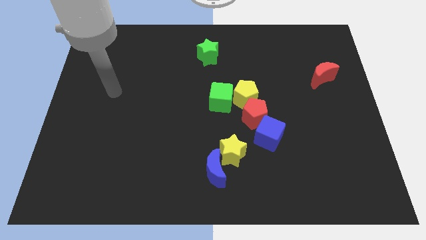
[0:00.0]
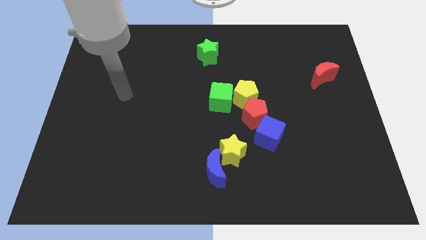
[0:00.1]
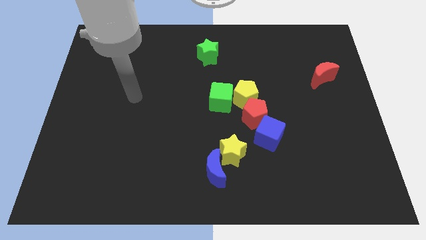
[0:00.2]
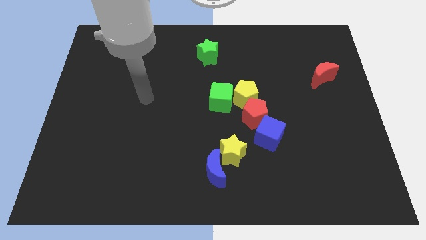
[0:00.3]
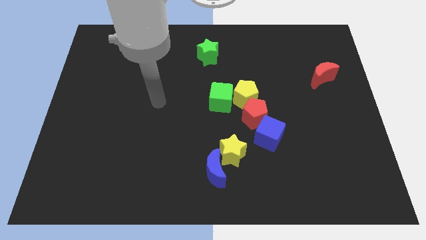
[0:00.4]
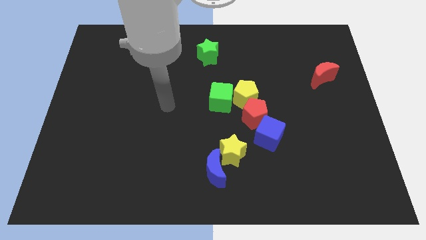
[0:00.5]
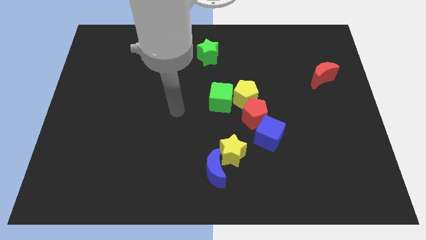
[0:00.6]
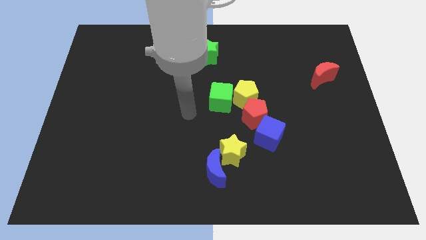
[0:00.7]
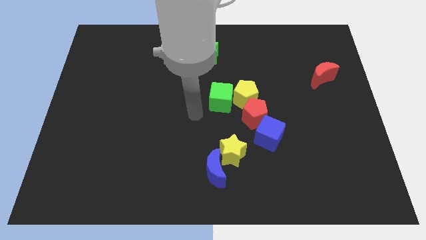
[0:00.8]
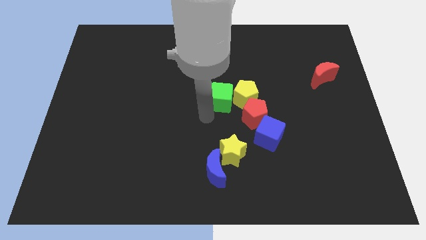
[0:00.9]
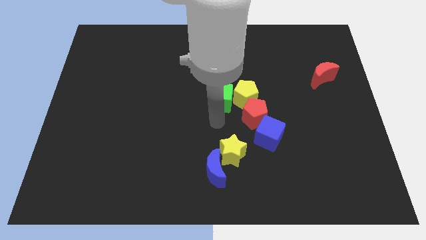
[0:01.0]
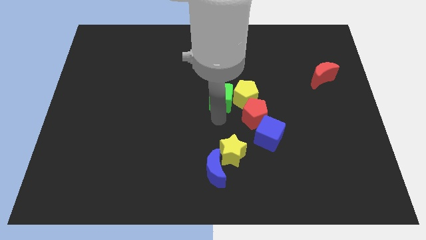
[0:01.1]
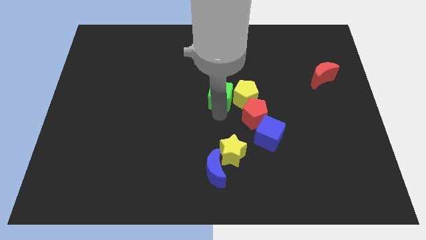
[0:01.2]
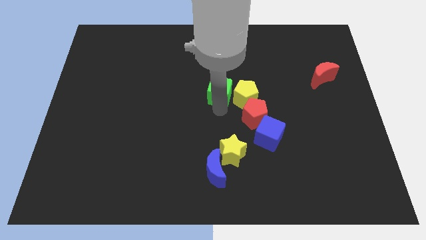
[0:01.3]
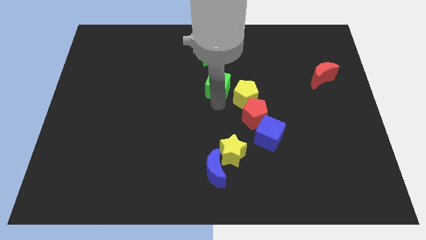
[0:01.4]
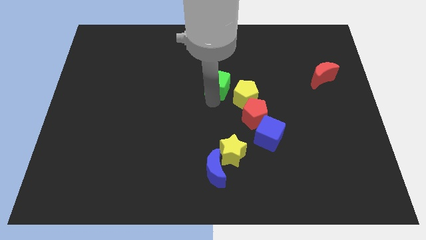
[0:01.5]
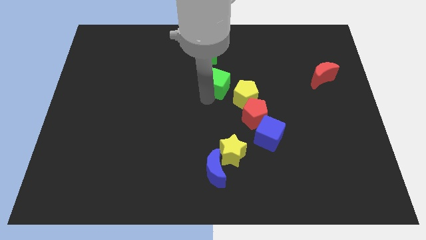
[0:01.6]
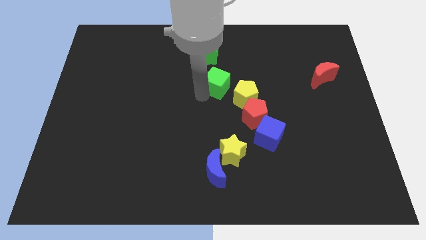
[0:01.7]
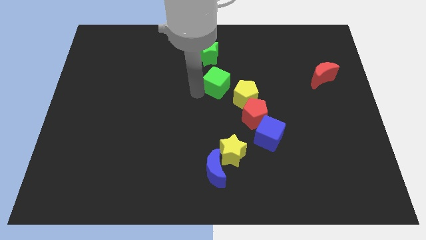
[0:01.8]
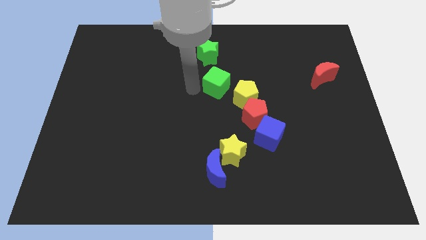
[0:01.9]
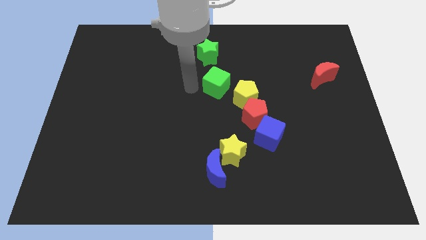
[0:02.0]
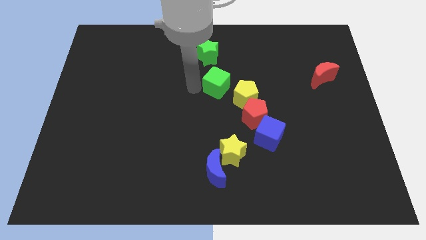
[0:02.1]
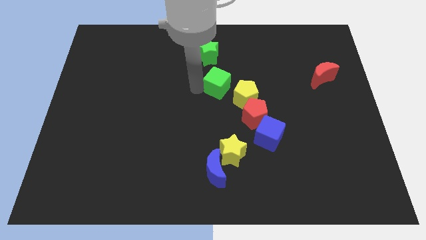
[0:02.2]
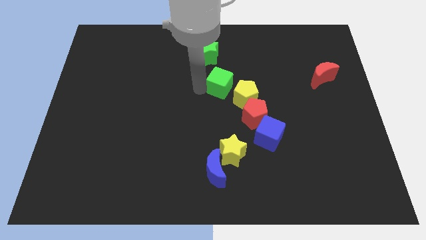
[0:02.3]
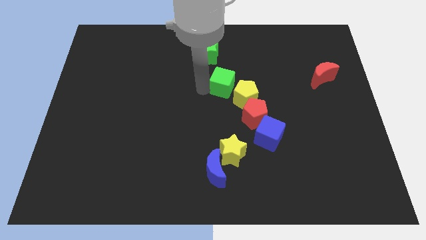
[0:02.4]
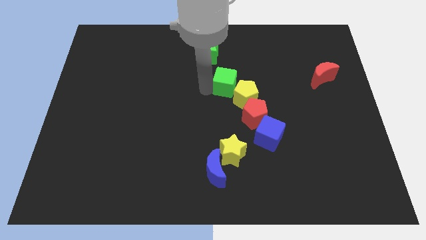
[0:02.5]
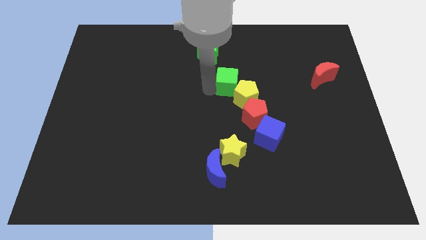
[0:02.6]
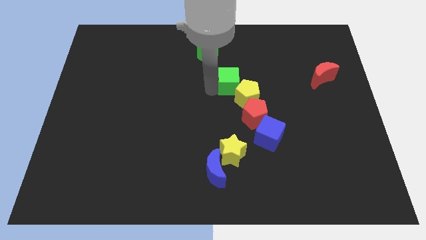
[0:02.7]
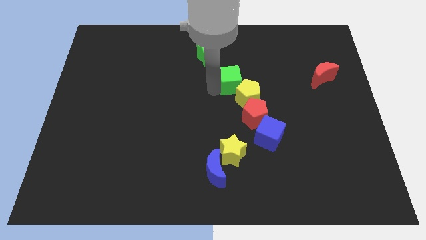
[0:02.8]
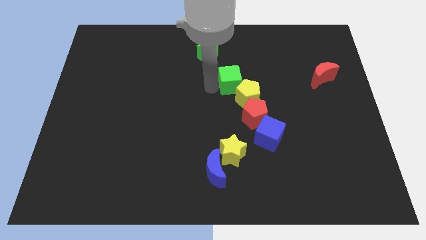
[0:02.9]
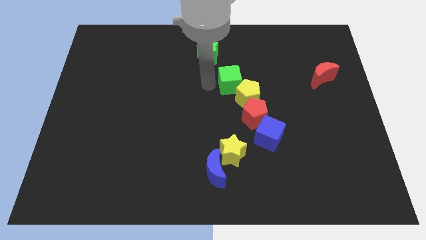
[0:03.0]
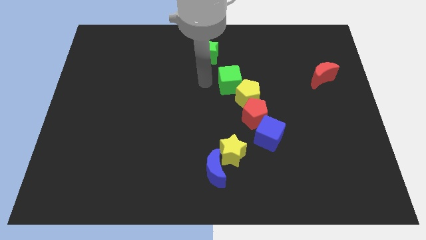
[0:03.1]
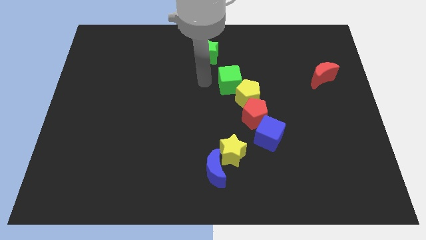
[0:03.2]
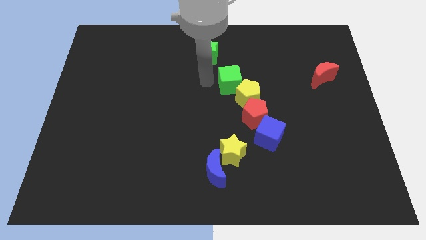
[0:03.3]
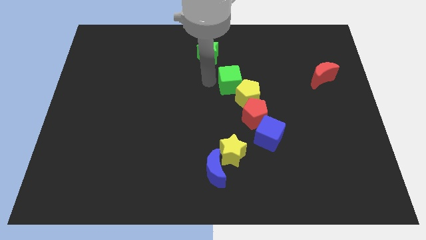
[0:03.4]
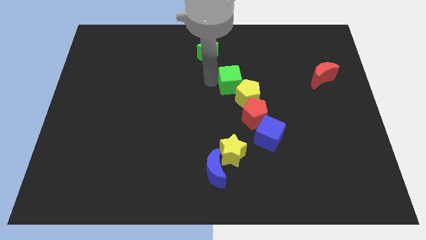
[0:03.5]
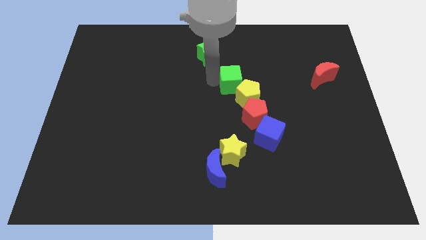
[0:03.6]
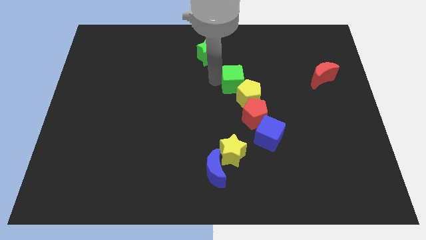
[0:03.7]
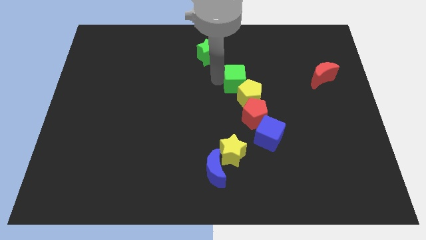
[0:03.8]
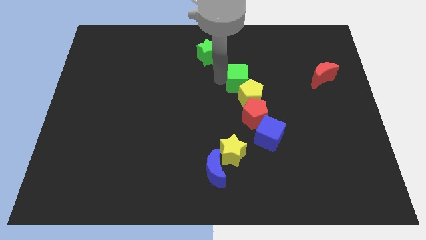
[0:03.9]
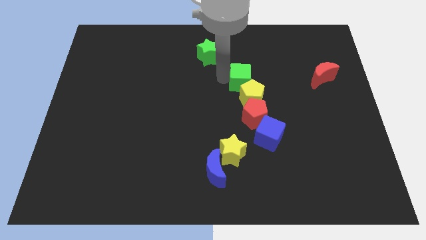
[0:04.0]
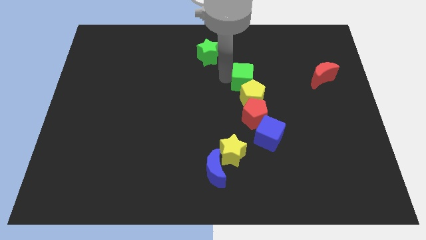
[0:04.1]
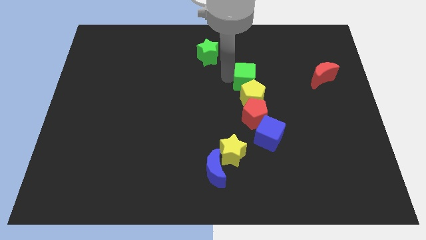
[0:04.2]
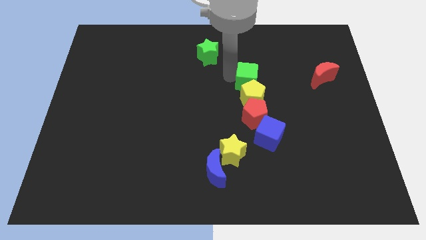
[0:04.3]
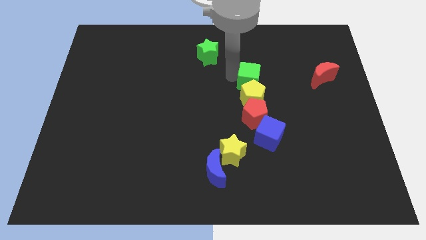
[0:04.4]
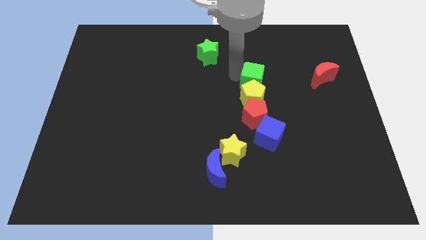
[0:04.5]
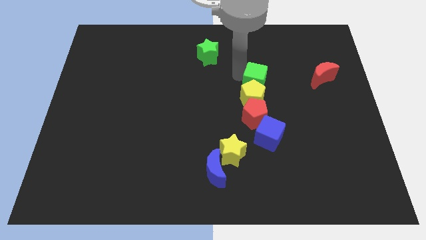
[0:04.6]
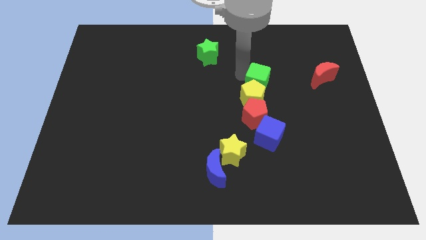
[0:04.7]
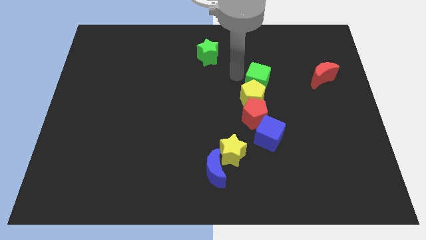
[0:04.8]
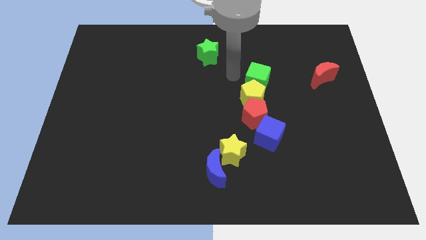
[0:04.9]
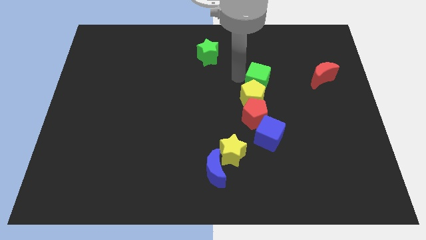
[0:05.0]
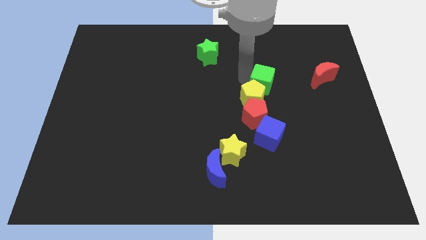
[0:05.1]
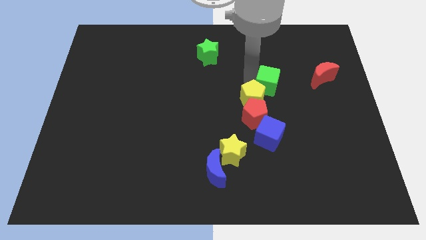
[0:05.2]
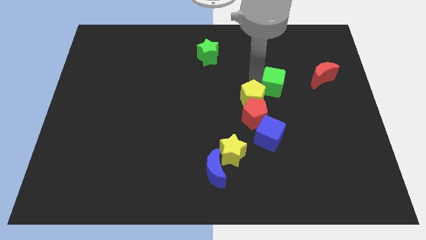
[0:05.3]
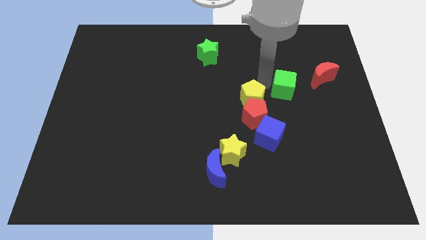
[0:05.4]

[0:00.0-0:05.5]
move the green cube to the bottom left of the red moon

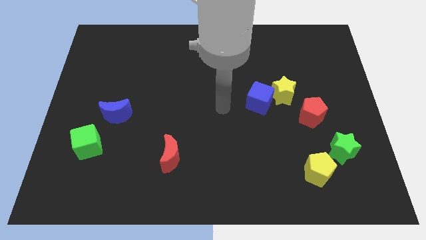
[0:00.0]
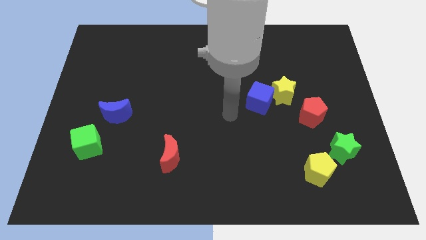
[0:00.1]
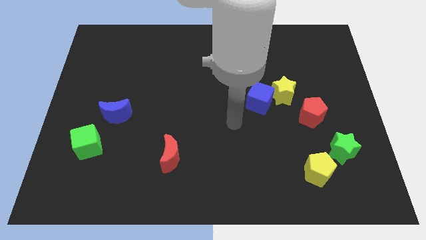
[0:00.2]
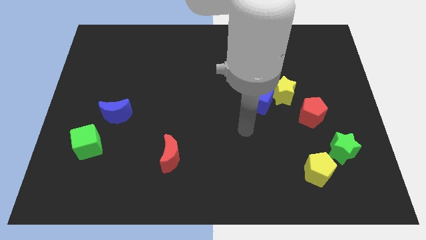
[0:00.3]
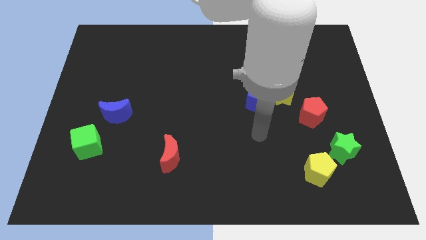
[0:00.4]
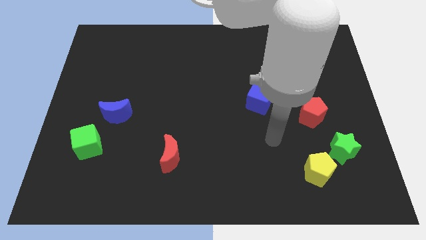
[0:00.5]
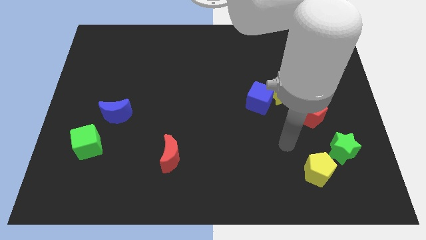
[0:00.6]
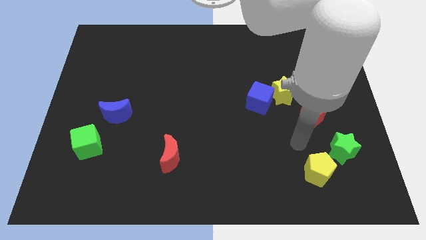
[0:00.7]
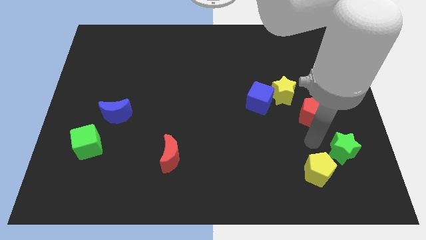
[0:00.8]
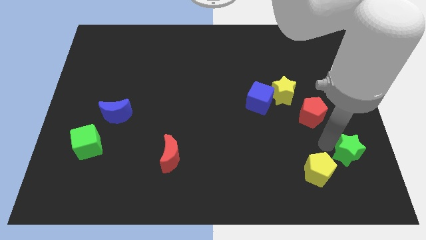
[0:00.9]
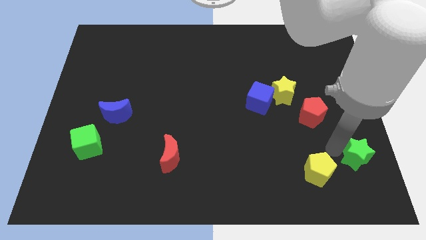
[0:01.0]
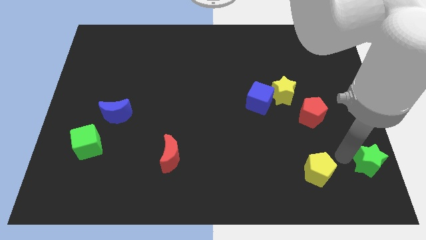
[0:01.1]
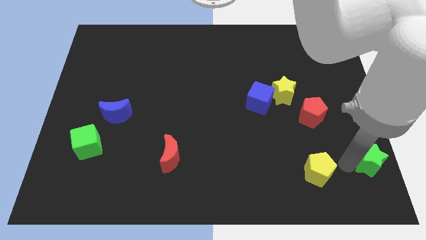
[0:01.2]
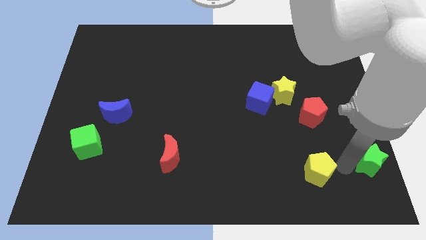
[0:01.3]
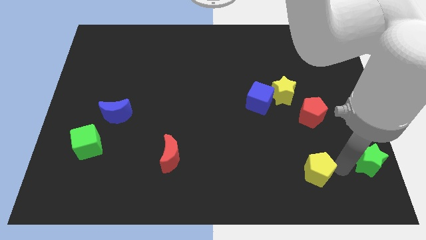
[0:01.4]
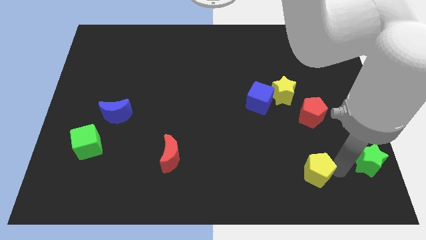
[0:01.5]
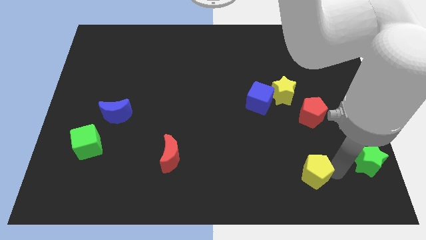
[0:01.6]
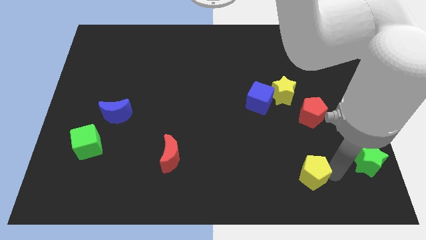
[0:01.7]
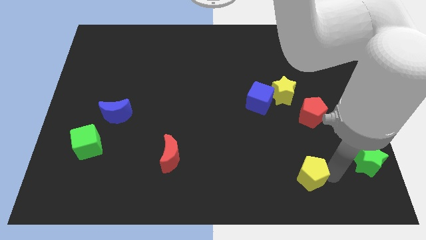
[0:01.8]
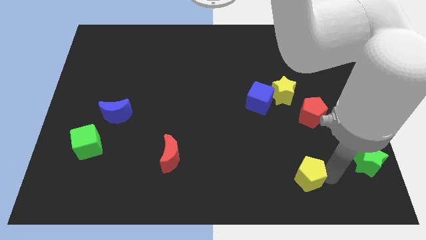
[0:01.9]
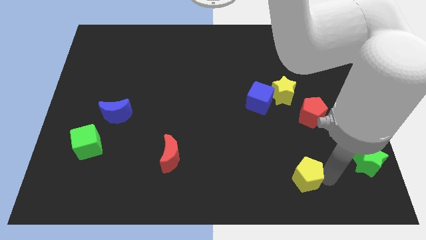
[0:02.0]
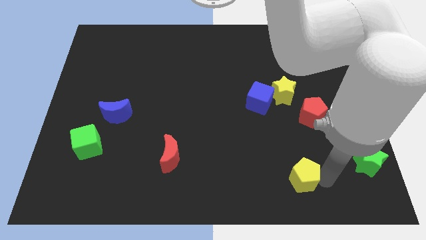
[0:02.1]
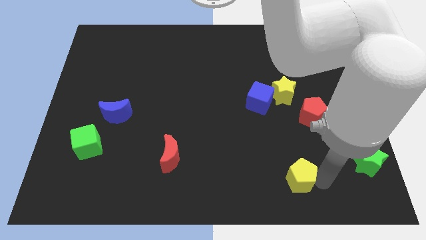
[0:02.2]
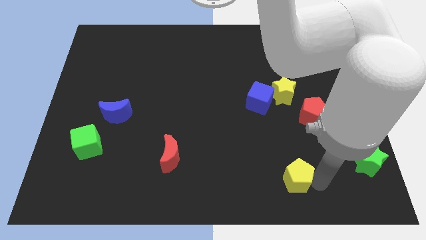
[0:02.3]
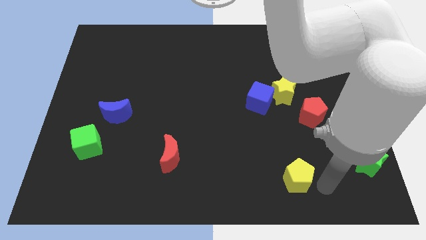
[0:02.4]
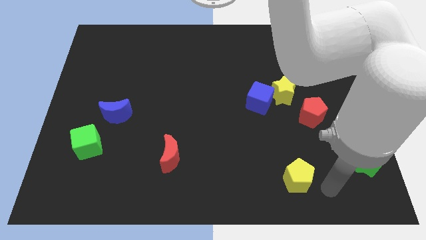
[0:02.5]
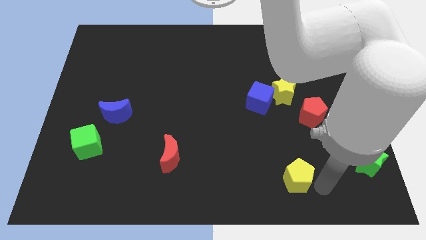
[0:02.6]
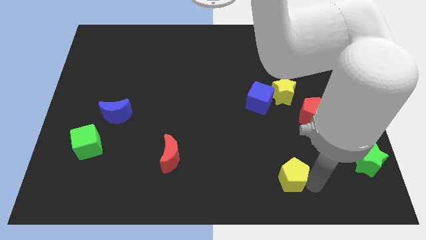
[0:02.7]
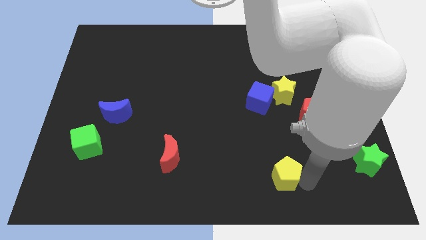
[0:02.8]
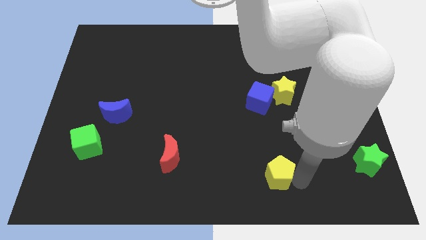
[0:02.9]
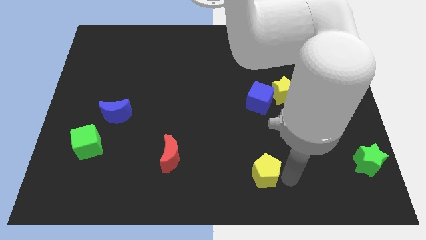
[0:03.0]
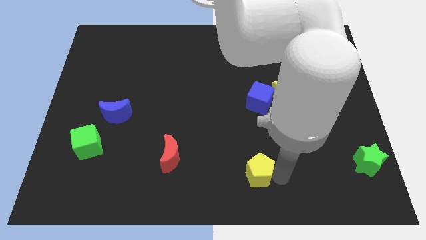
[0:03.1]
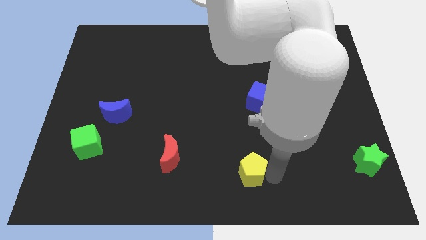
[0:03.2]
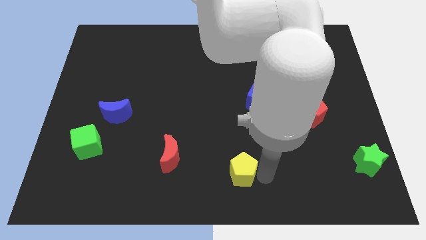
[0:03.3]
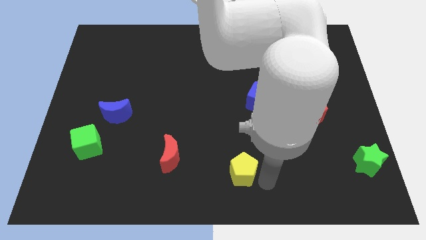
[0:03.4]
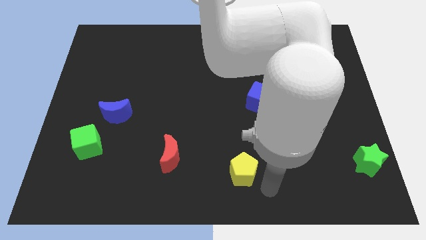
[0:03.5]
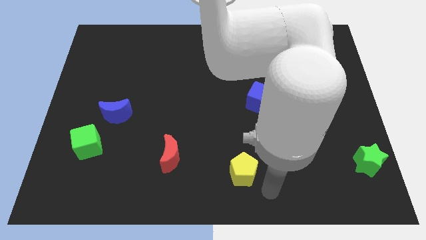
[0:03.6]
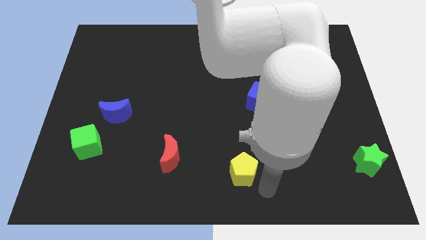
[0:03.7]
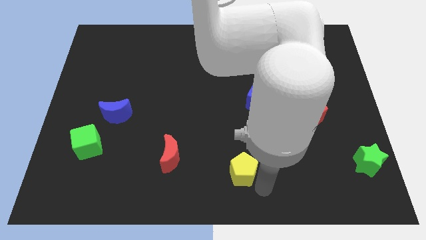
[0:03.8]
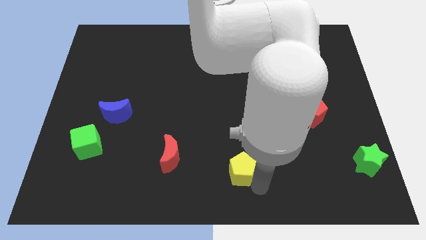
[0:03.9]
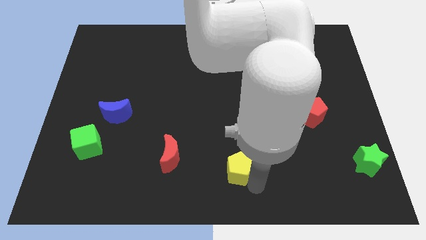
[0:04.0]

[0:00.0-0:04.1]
push the yellow pentagon just right of the red moon
